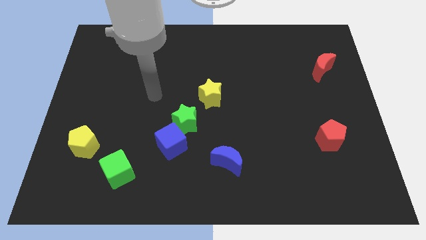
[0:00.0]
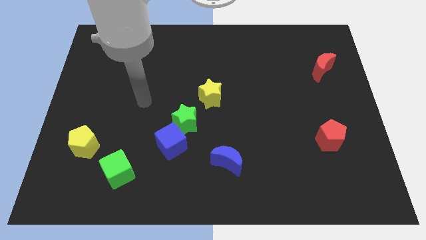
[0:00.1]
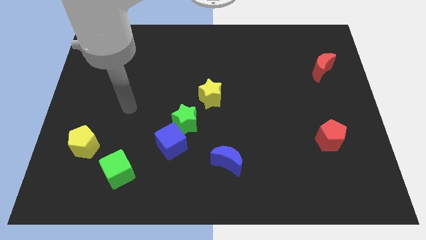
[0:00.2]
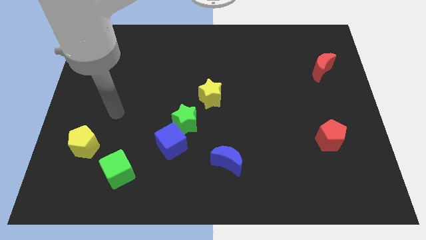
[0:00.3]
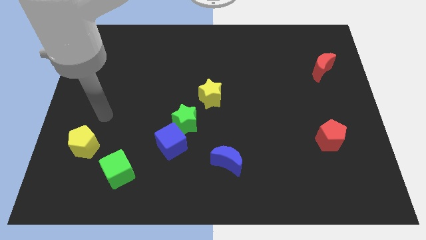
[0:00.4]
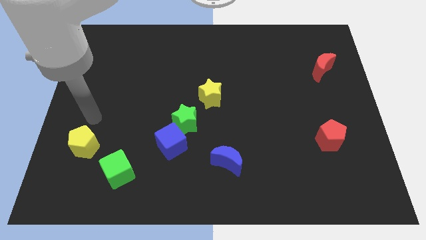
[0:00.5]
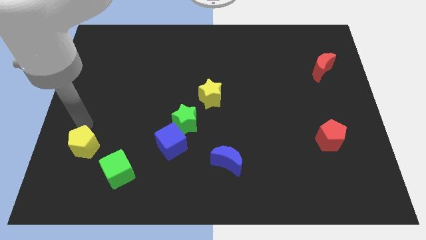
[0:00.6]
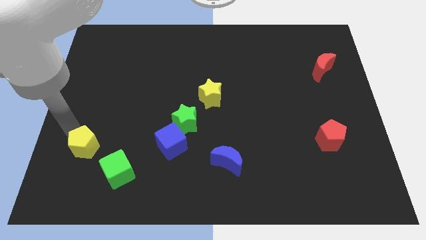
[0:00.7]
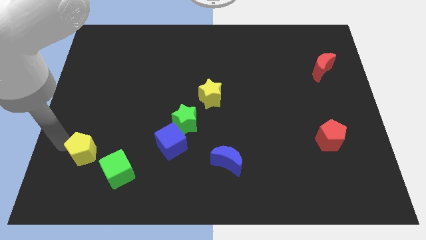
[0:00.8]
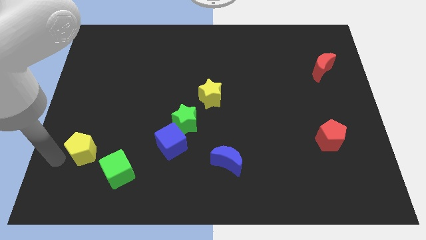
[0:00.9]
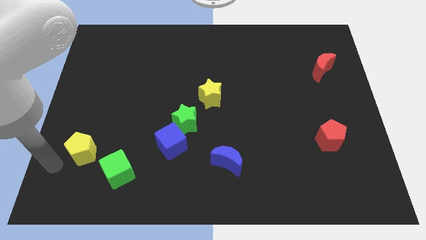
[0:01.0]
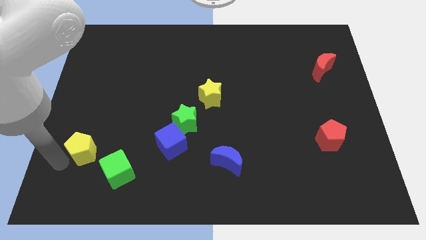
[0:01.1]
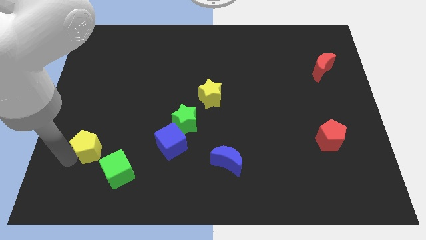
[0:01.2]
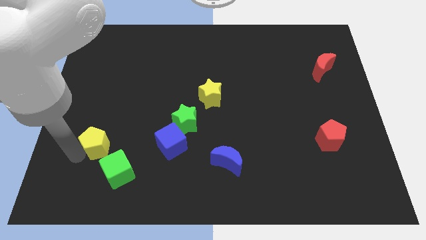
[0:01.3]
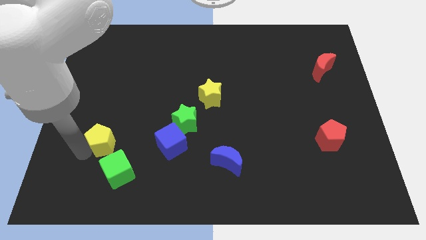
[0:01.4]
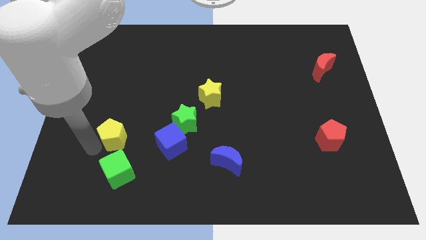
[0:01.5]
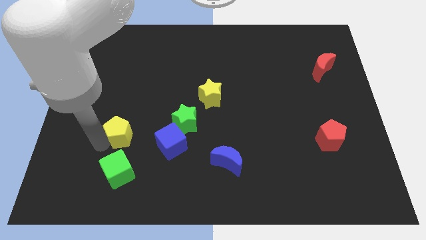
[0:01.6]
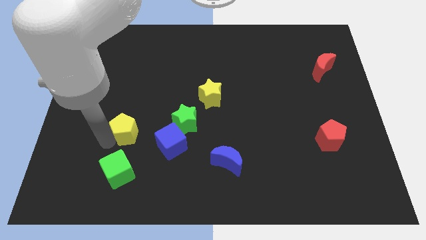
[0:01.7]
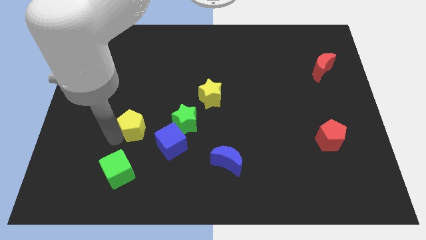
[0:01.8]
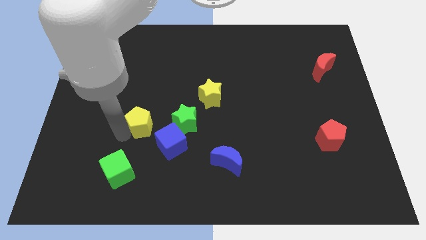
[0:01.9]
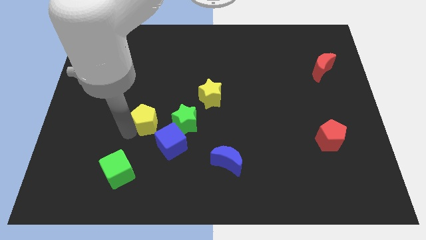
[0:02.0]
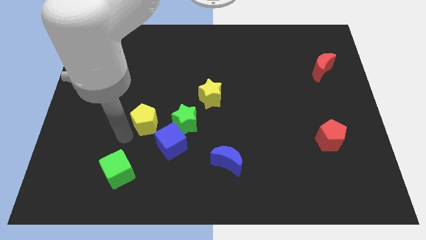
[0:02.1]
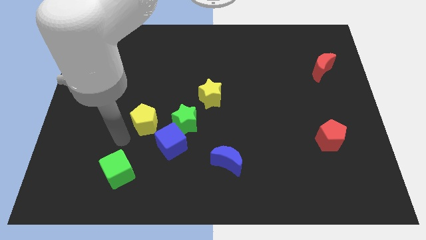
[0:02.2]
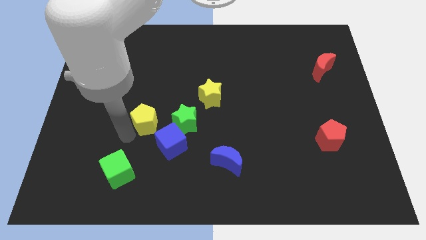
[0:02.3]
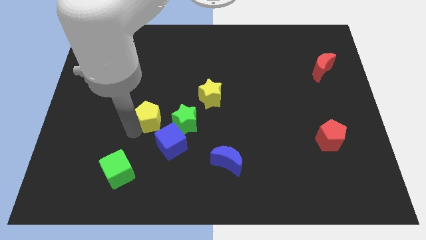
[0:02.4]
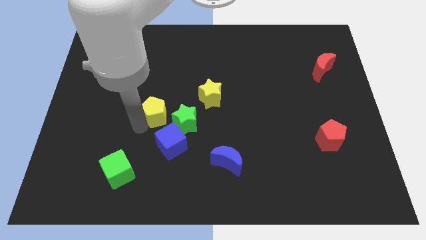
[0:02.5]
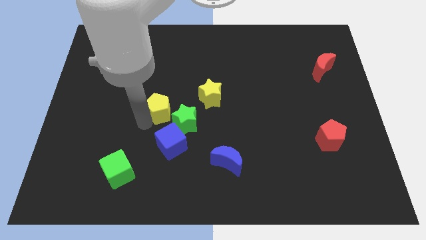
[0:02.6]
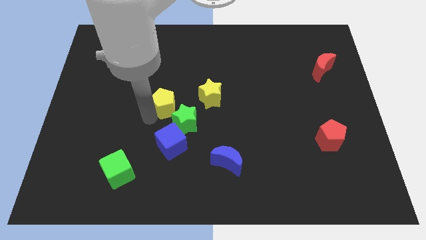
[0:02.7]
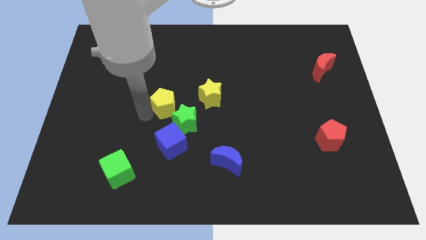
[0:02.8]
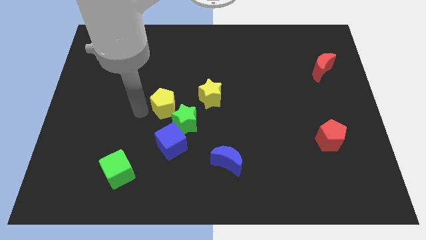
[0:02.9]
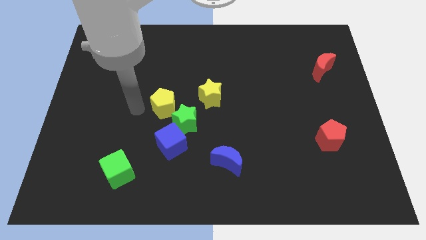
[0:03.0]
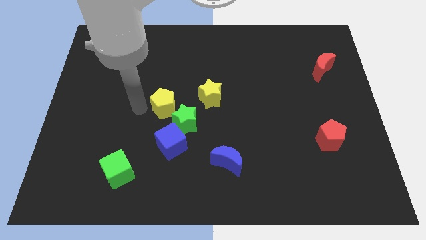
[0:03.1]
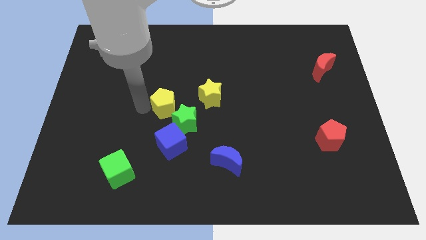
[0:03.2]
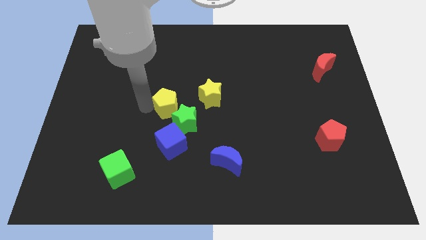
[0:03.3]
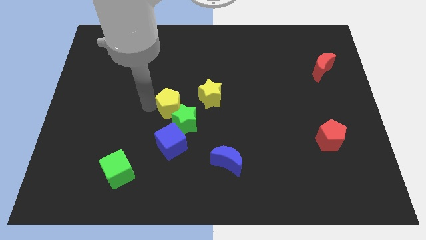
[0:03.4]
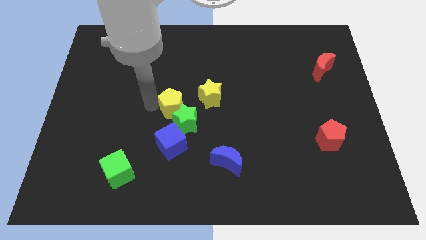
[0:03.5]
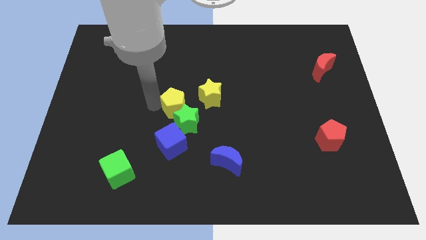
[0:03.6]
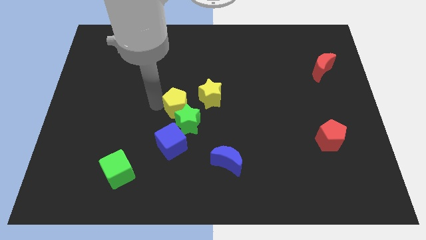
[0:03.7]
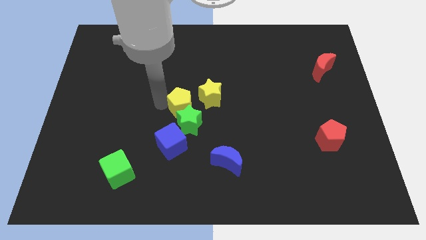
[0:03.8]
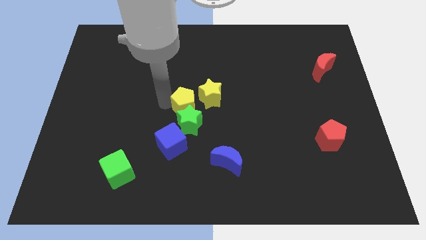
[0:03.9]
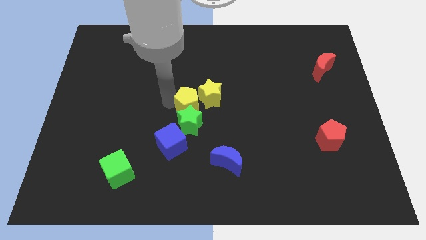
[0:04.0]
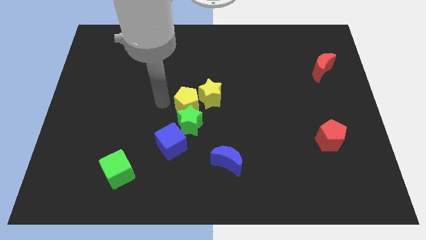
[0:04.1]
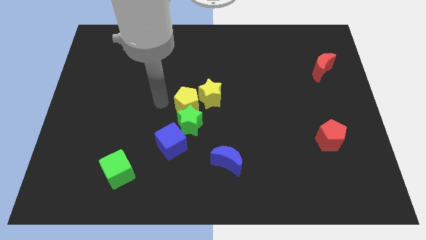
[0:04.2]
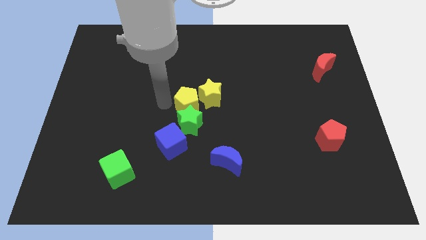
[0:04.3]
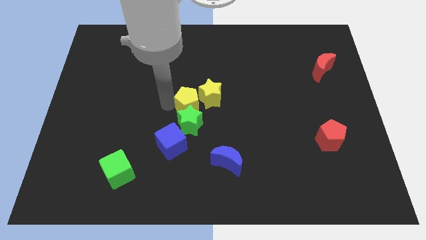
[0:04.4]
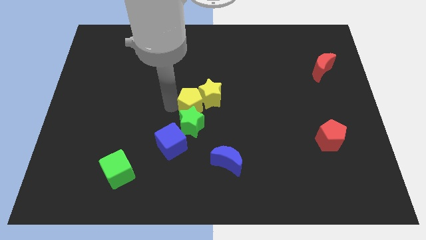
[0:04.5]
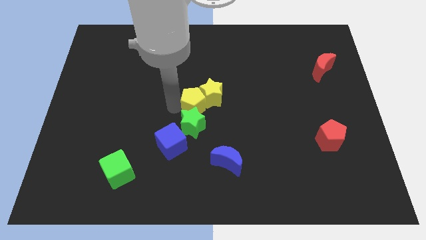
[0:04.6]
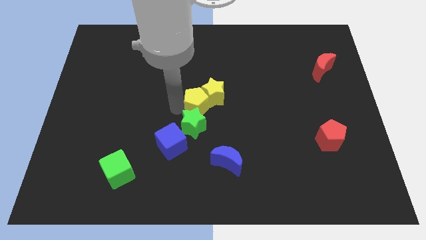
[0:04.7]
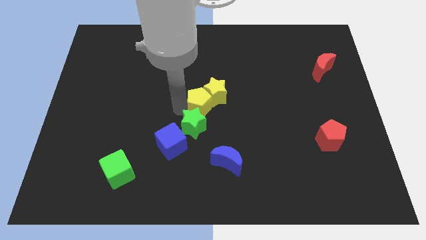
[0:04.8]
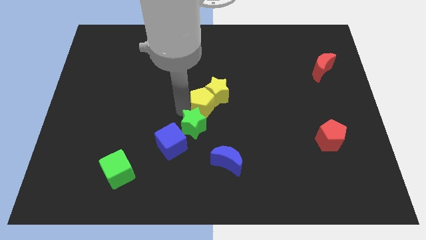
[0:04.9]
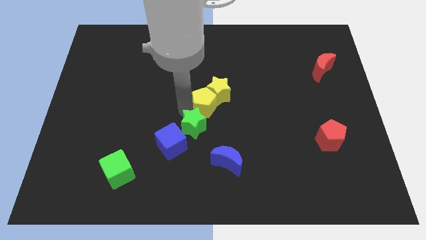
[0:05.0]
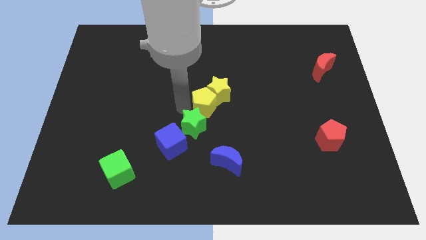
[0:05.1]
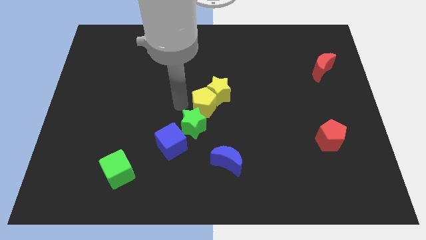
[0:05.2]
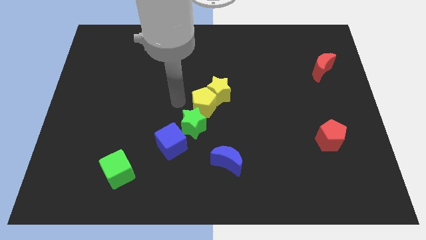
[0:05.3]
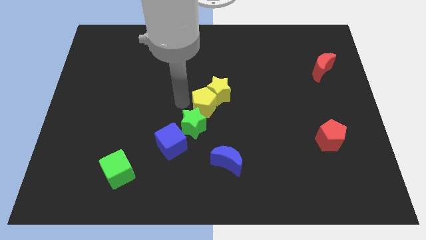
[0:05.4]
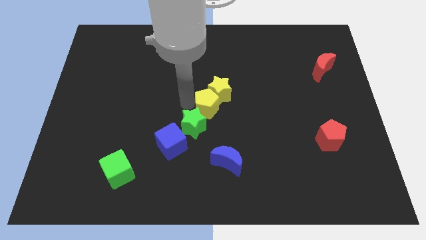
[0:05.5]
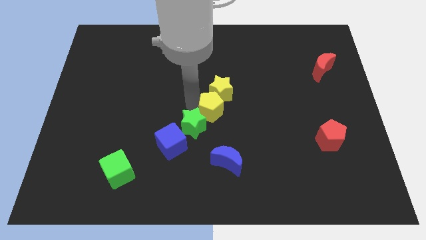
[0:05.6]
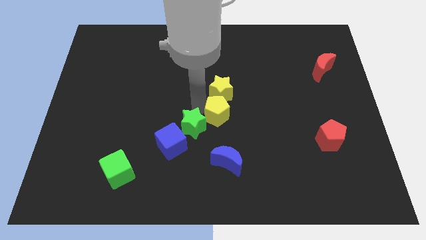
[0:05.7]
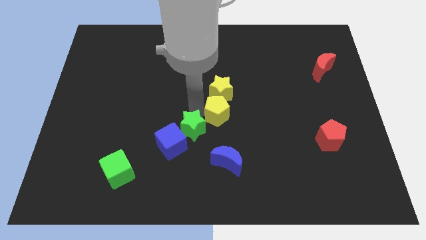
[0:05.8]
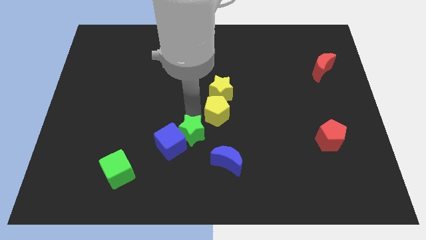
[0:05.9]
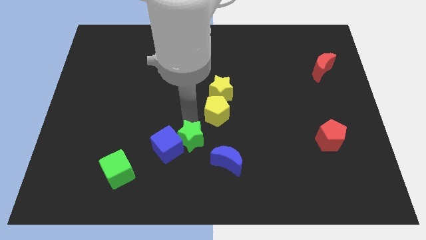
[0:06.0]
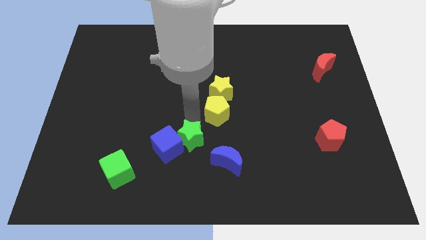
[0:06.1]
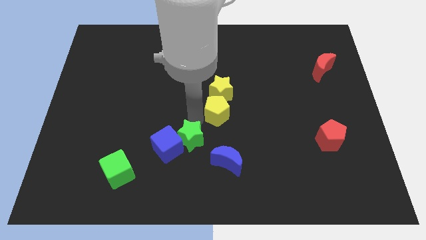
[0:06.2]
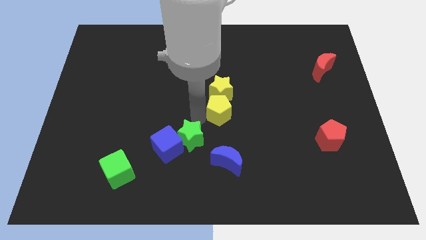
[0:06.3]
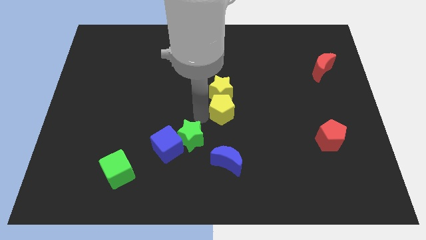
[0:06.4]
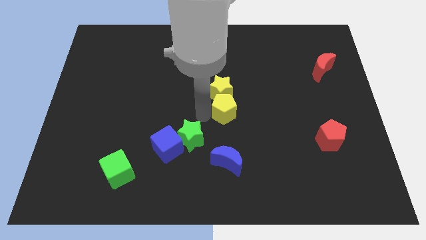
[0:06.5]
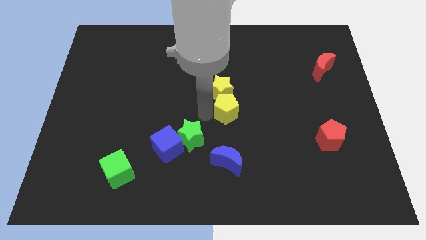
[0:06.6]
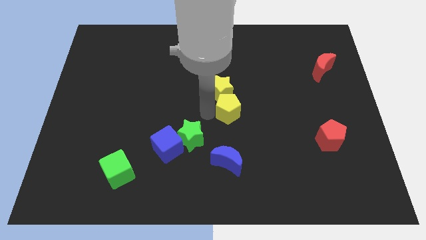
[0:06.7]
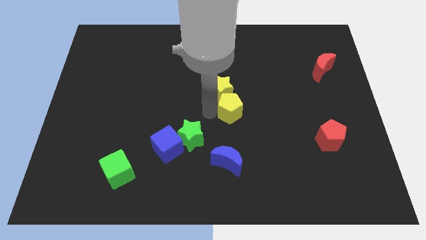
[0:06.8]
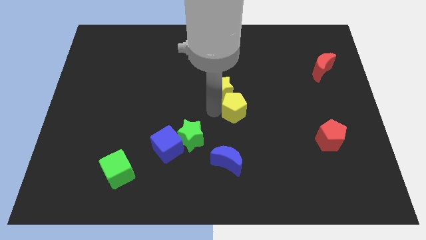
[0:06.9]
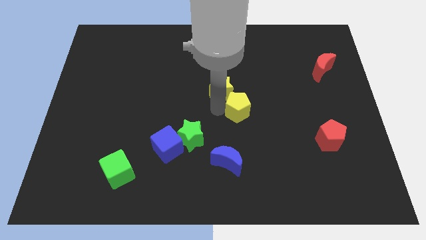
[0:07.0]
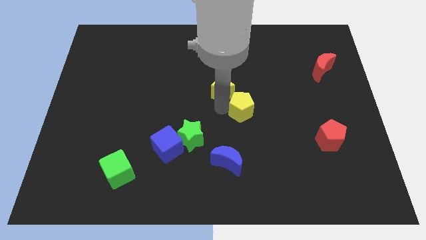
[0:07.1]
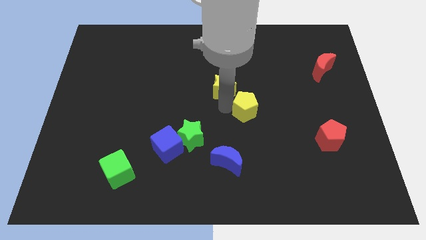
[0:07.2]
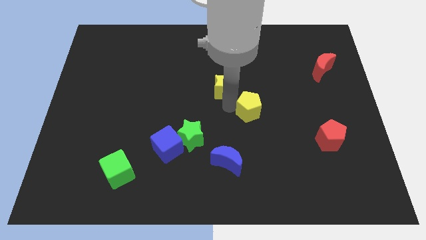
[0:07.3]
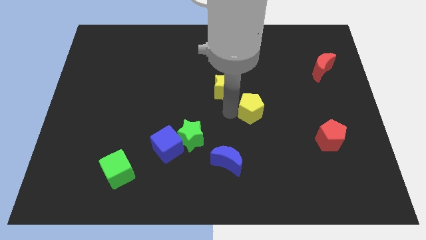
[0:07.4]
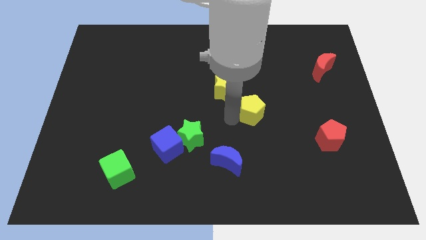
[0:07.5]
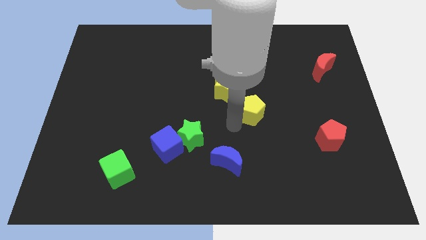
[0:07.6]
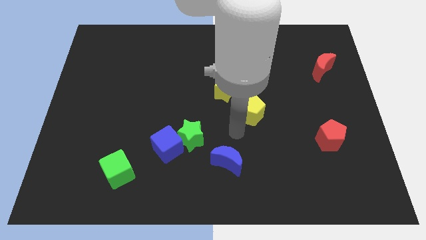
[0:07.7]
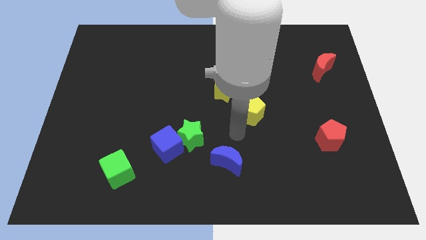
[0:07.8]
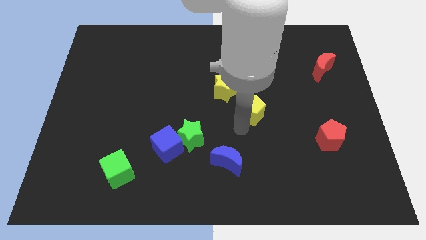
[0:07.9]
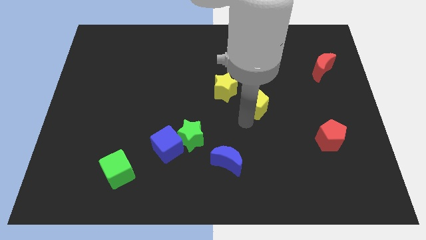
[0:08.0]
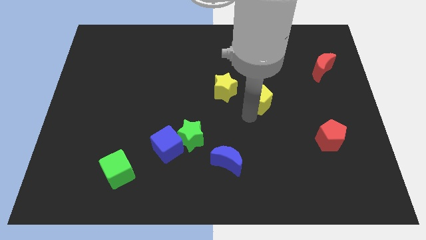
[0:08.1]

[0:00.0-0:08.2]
move the yellow pentagon just right of the yellow star
